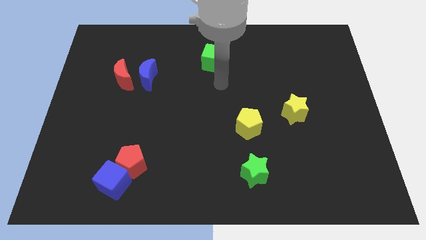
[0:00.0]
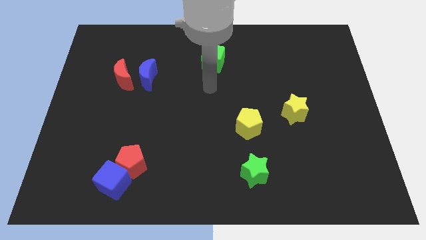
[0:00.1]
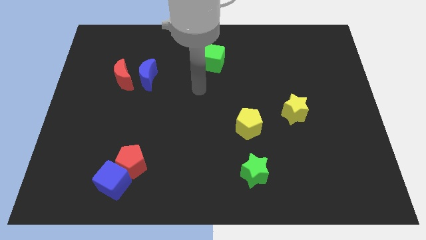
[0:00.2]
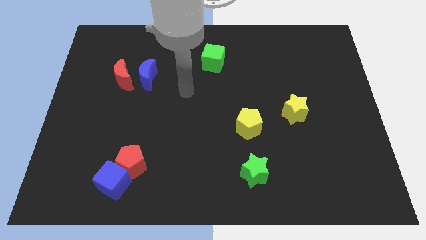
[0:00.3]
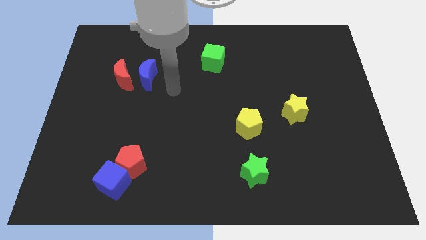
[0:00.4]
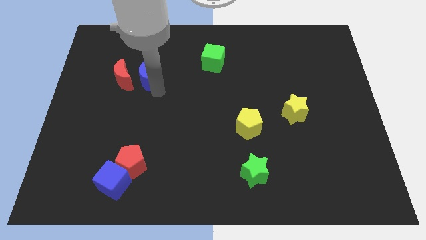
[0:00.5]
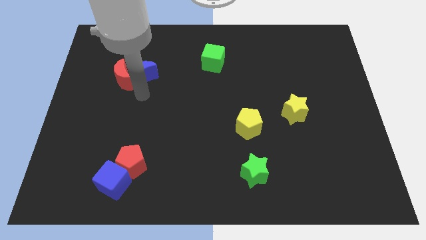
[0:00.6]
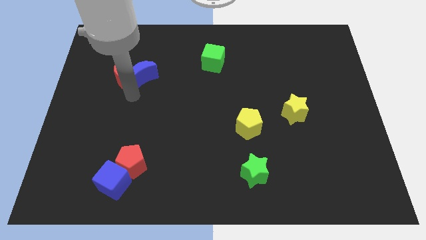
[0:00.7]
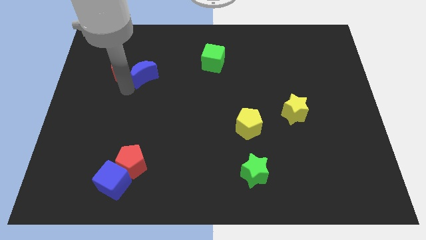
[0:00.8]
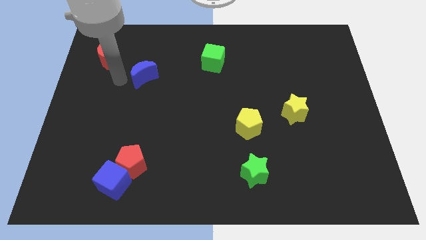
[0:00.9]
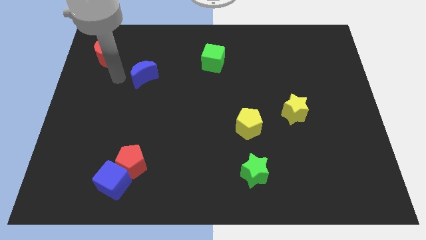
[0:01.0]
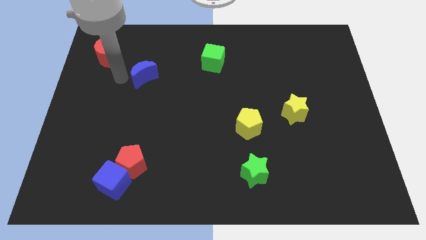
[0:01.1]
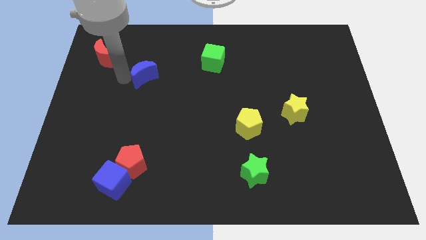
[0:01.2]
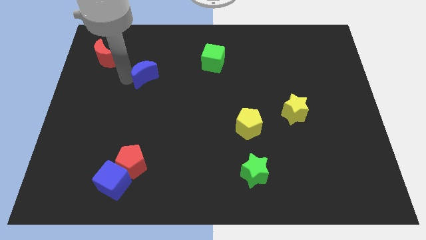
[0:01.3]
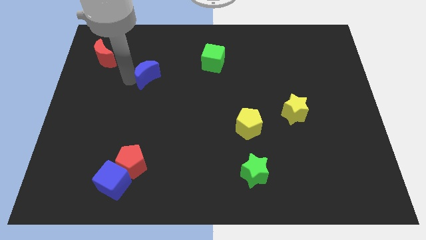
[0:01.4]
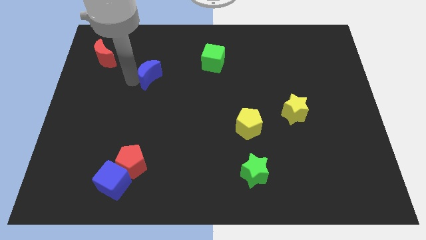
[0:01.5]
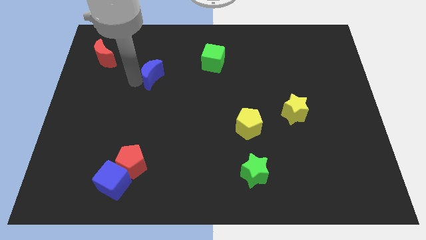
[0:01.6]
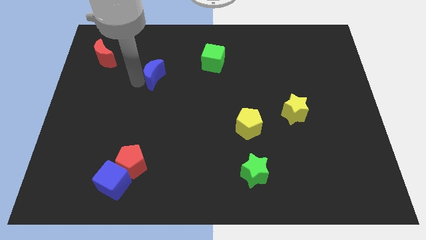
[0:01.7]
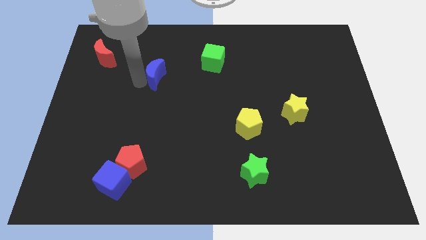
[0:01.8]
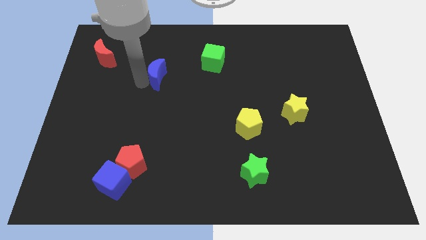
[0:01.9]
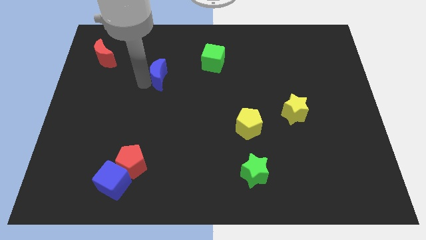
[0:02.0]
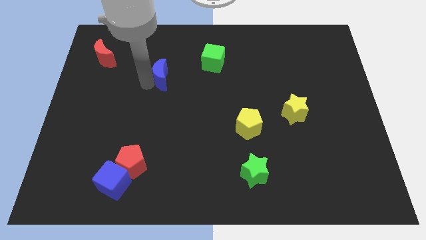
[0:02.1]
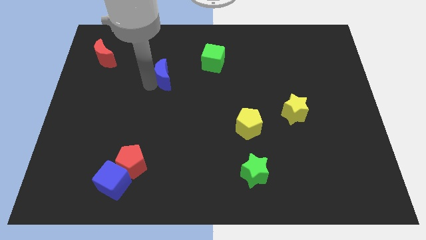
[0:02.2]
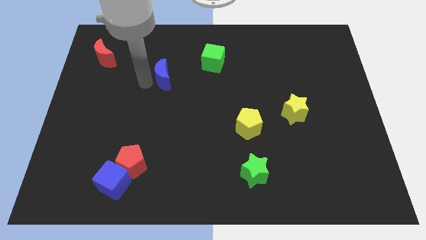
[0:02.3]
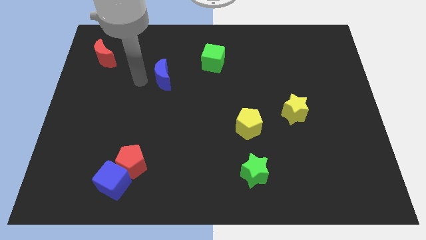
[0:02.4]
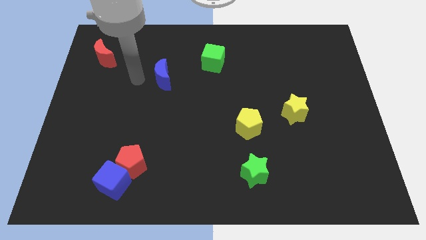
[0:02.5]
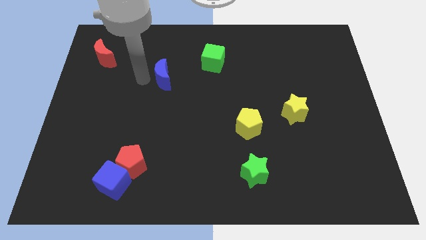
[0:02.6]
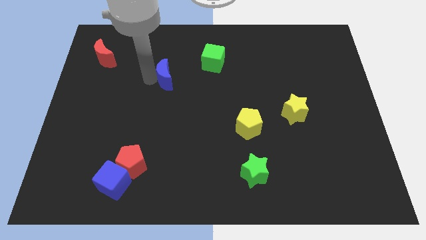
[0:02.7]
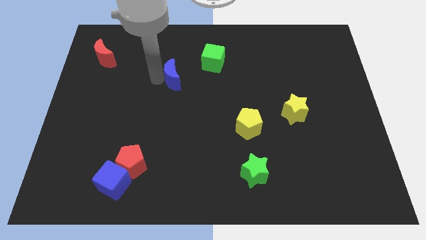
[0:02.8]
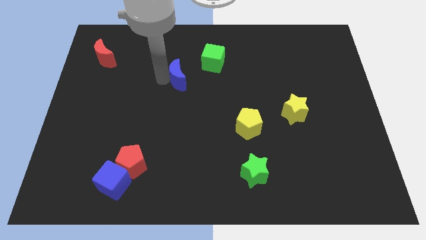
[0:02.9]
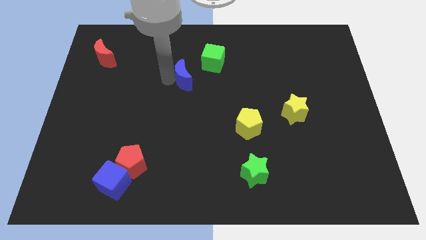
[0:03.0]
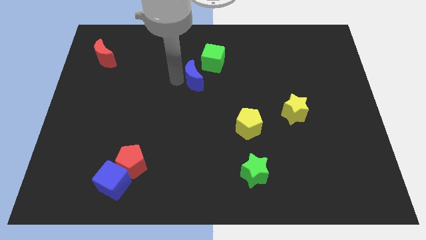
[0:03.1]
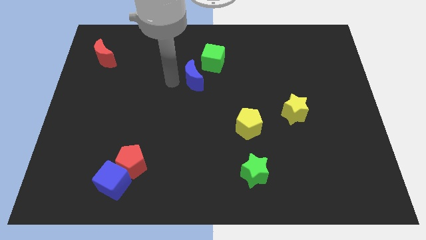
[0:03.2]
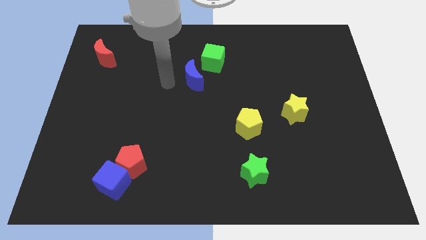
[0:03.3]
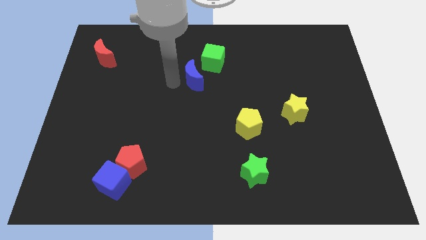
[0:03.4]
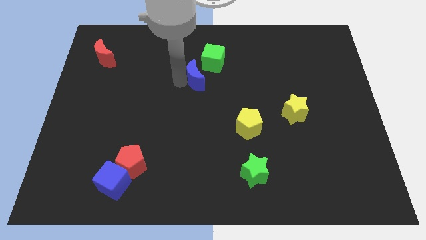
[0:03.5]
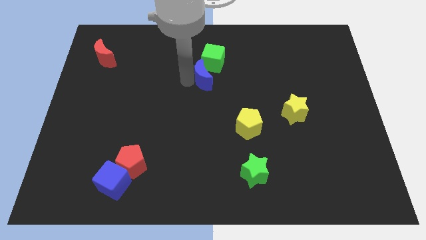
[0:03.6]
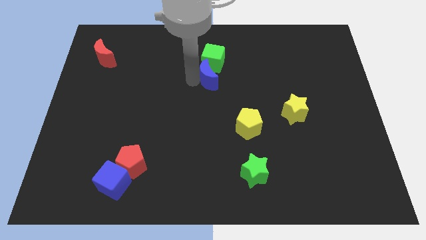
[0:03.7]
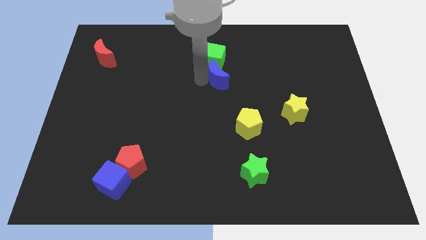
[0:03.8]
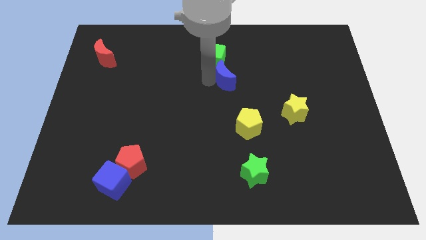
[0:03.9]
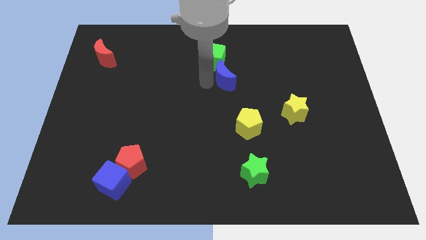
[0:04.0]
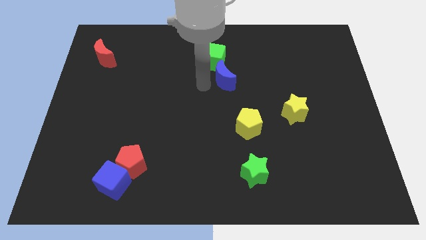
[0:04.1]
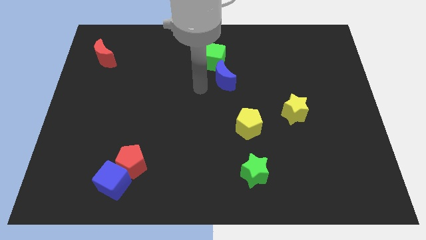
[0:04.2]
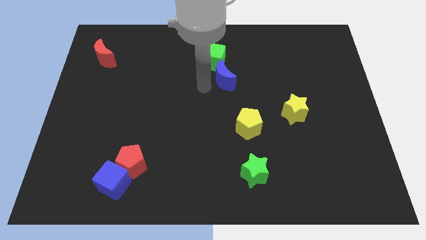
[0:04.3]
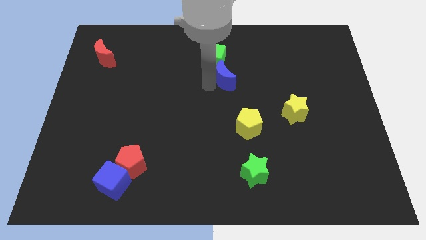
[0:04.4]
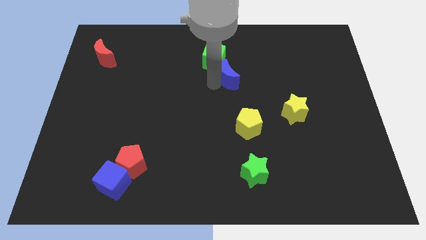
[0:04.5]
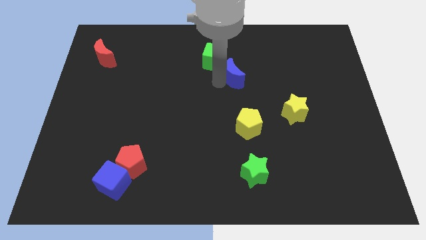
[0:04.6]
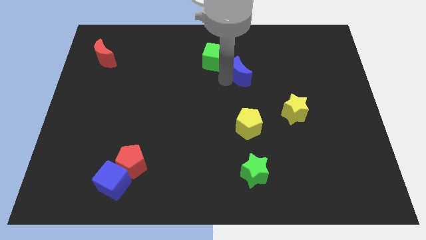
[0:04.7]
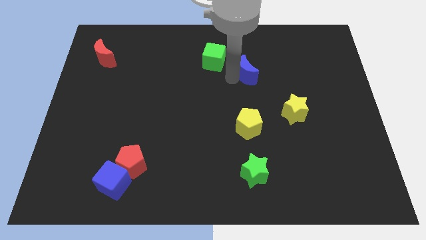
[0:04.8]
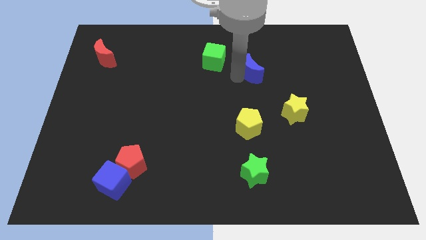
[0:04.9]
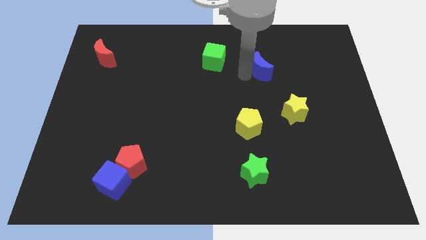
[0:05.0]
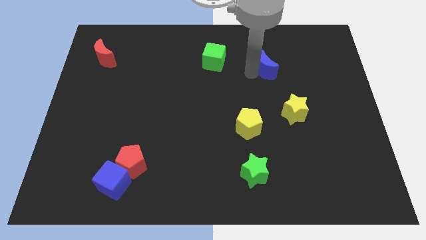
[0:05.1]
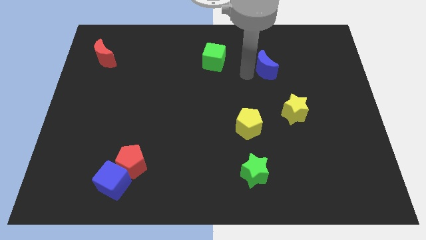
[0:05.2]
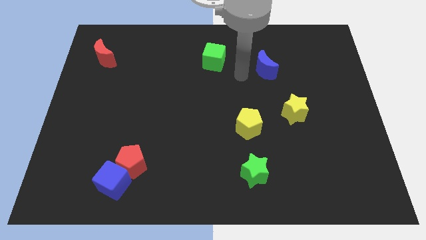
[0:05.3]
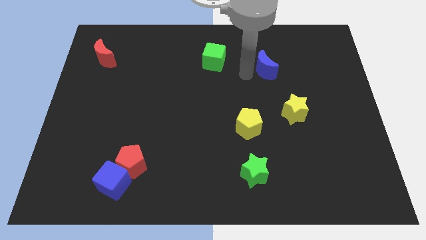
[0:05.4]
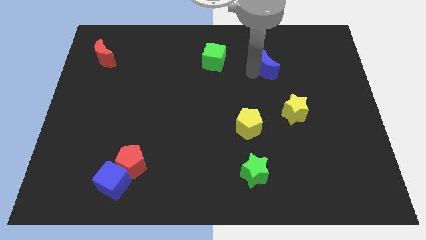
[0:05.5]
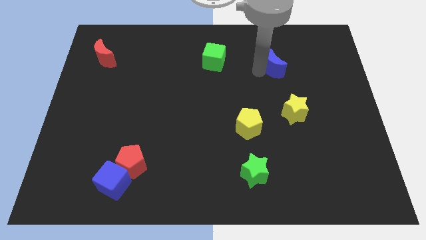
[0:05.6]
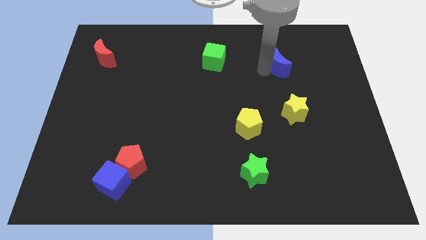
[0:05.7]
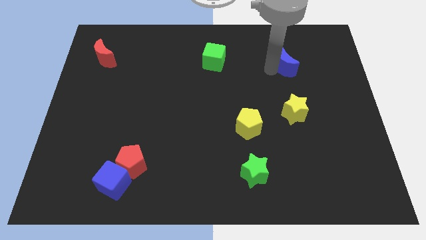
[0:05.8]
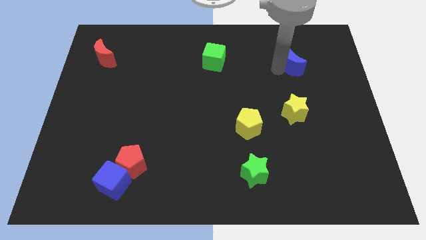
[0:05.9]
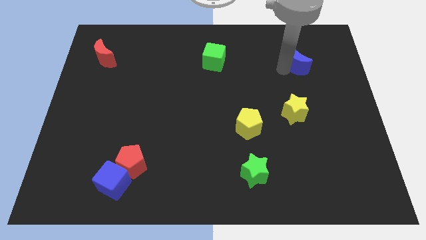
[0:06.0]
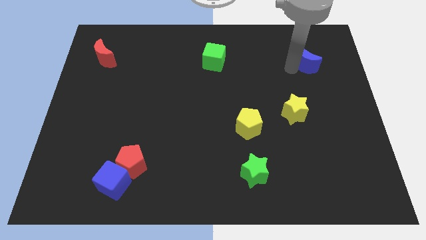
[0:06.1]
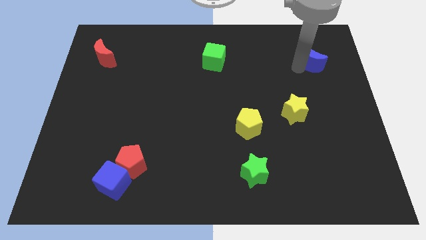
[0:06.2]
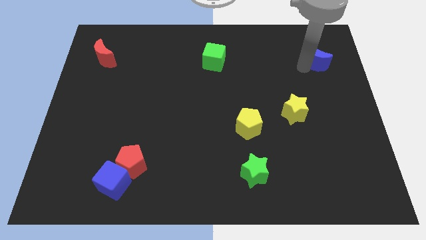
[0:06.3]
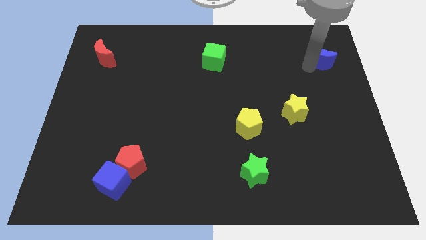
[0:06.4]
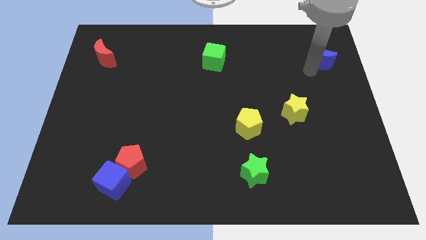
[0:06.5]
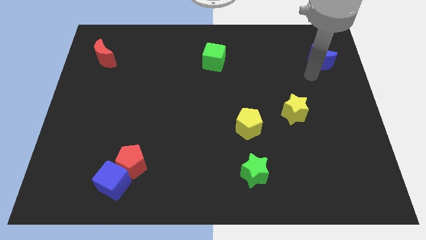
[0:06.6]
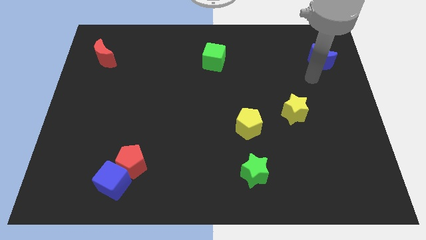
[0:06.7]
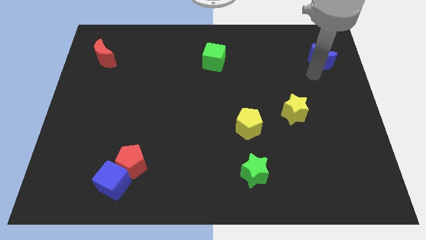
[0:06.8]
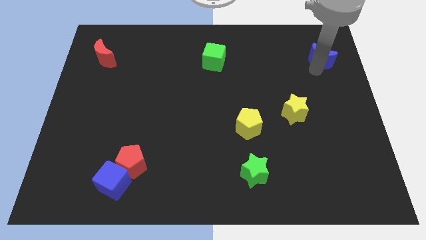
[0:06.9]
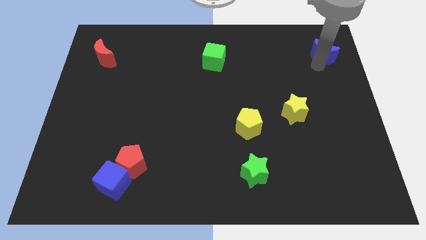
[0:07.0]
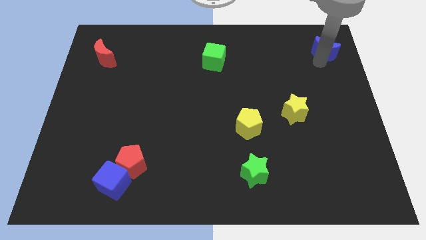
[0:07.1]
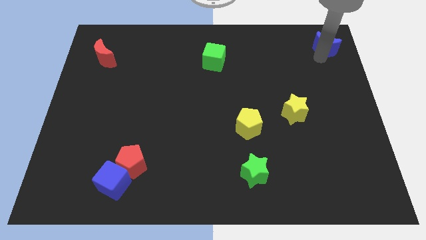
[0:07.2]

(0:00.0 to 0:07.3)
push the blue moon to the top right corner
